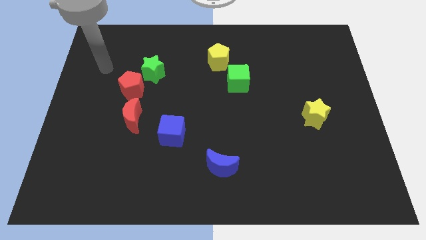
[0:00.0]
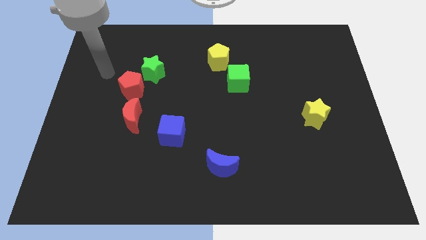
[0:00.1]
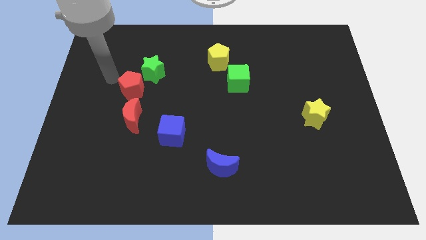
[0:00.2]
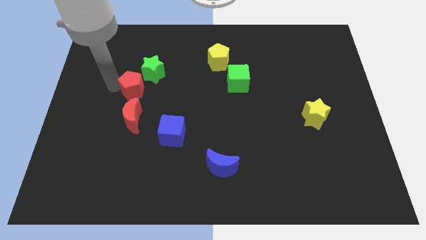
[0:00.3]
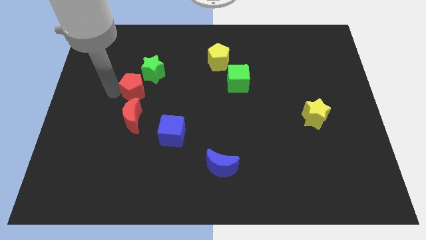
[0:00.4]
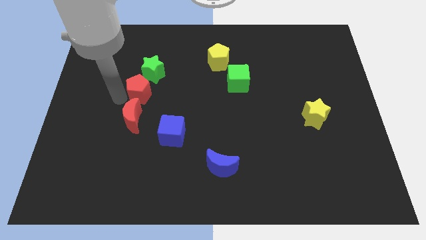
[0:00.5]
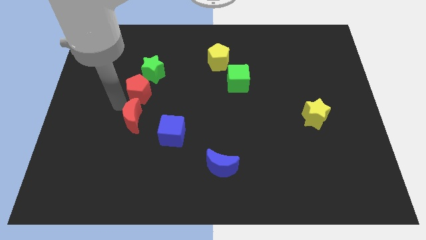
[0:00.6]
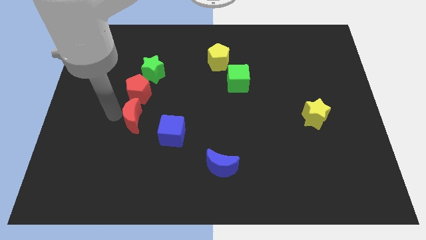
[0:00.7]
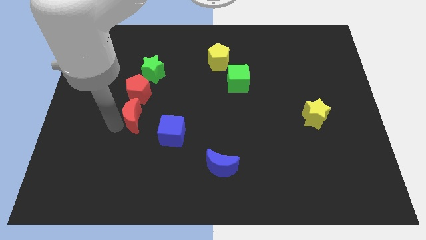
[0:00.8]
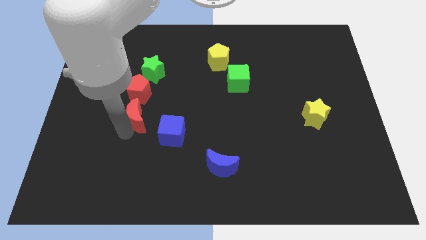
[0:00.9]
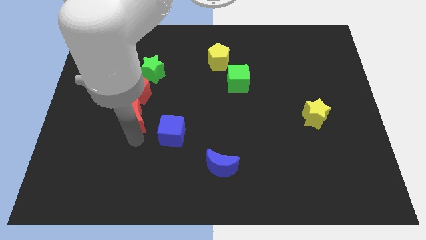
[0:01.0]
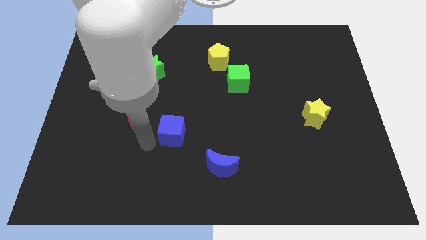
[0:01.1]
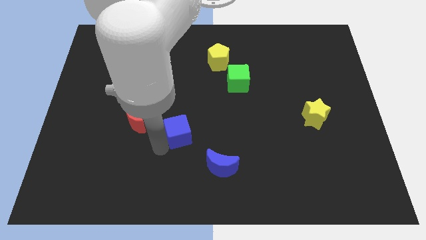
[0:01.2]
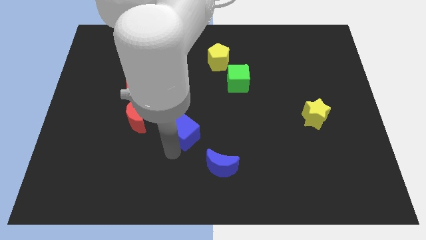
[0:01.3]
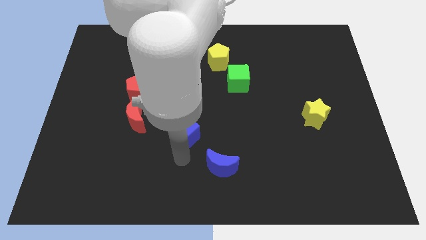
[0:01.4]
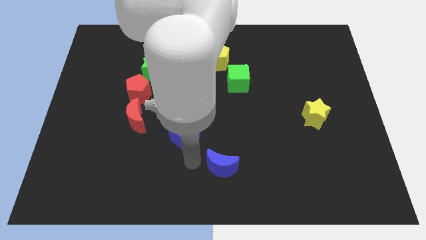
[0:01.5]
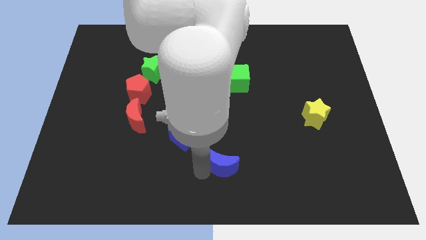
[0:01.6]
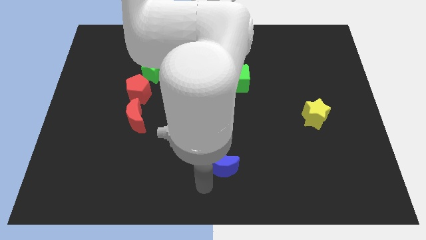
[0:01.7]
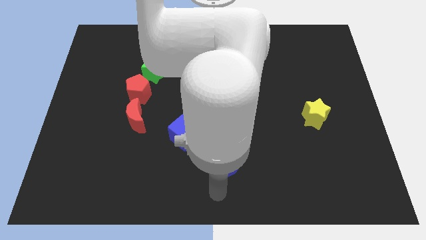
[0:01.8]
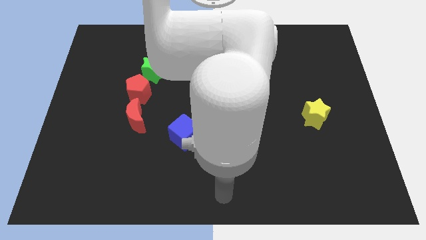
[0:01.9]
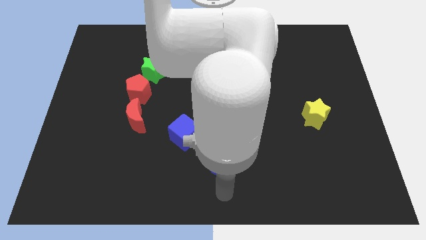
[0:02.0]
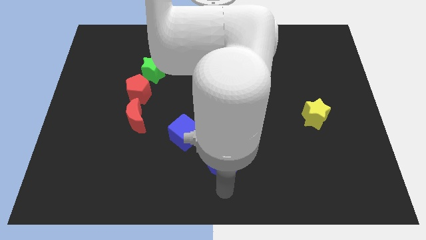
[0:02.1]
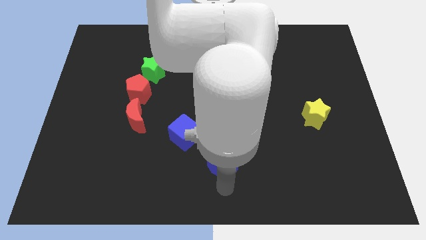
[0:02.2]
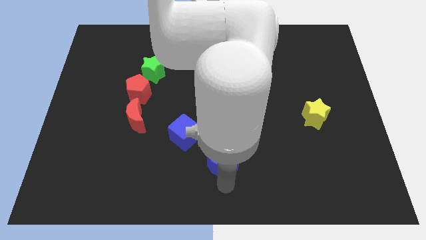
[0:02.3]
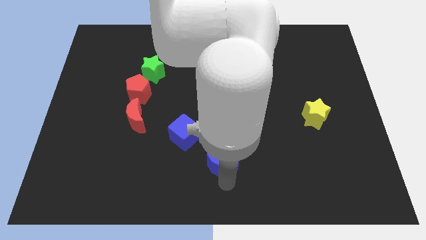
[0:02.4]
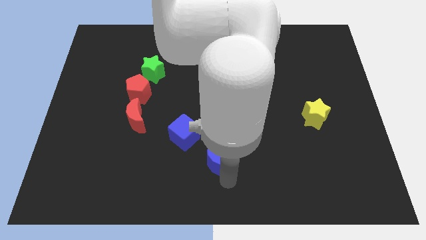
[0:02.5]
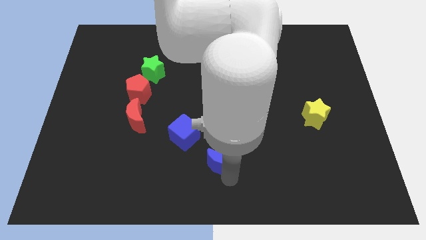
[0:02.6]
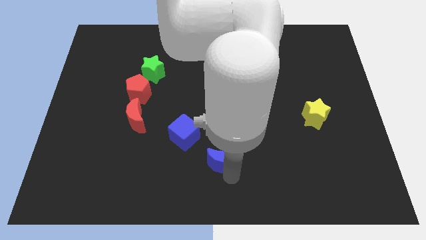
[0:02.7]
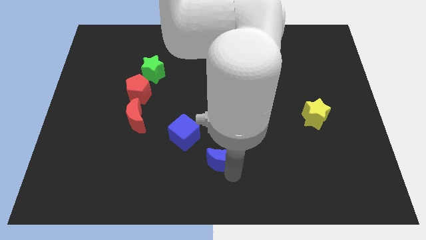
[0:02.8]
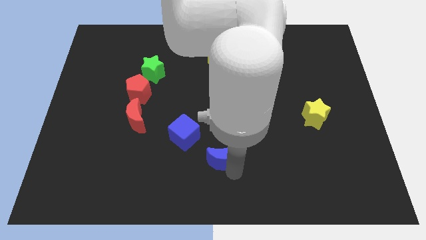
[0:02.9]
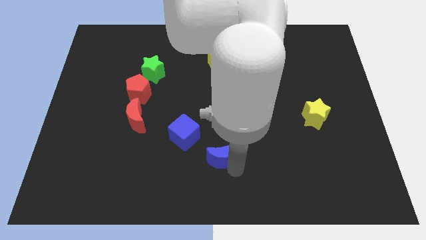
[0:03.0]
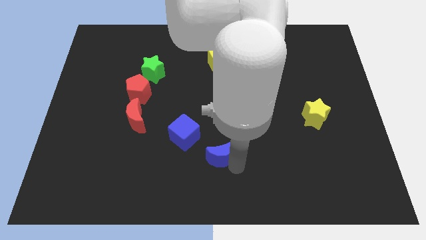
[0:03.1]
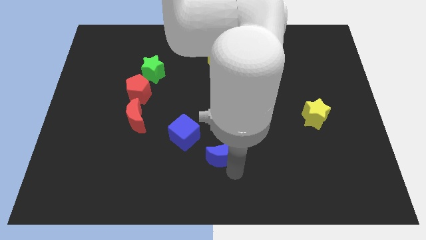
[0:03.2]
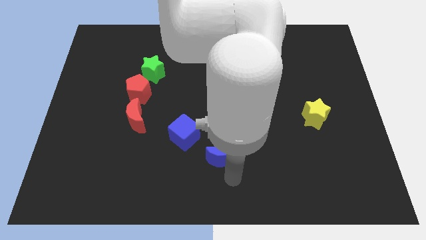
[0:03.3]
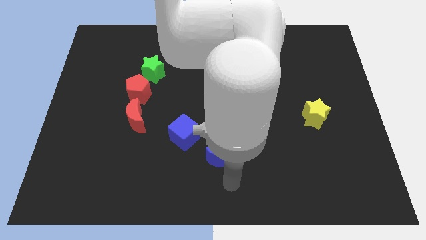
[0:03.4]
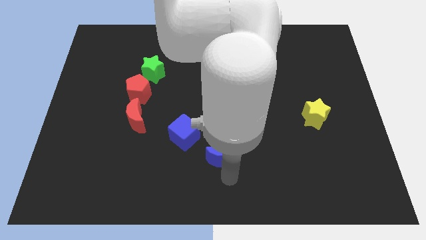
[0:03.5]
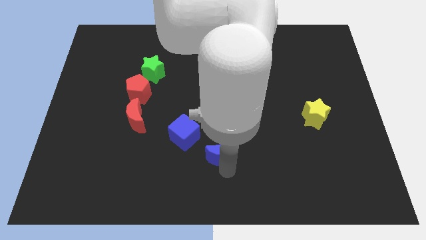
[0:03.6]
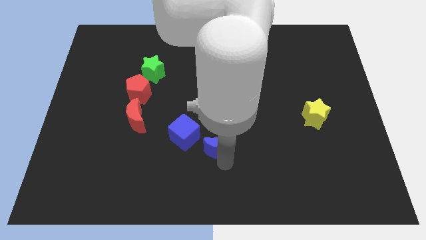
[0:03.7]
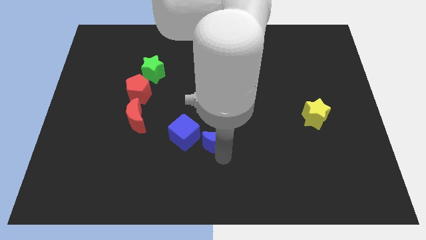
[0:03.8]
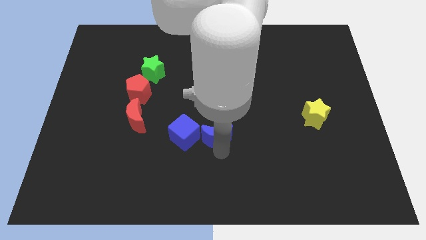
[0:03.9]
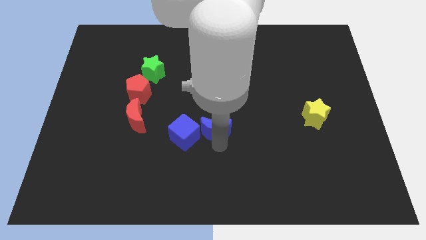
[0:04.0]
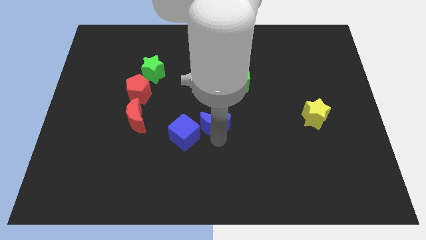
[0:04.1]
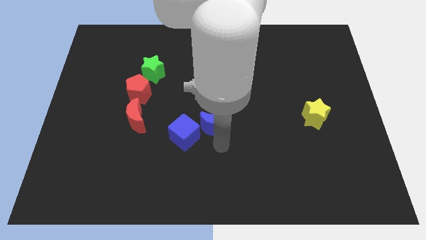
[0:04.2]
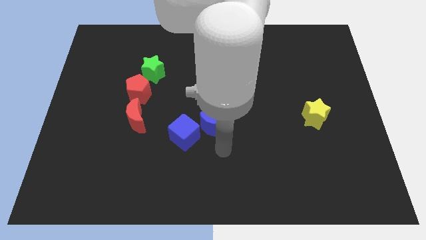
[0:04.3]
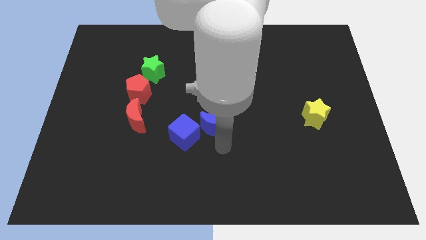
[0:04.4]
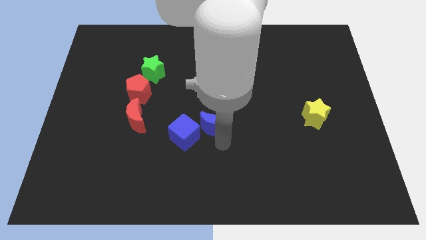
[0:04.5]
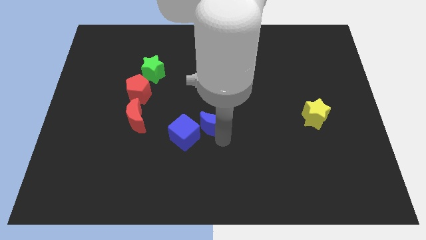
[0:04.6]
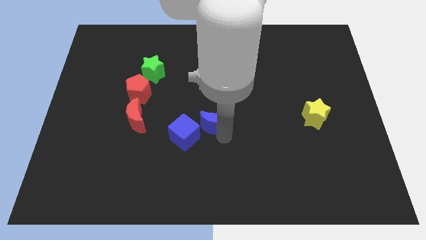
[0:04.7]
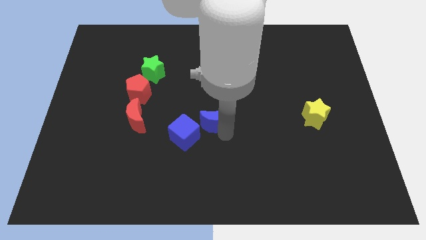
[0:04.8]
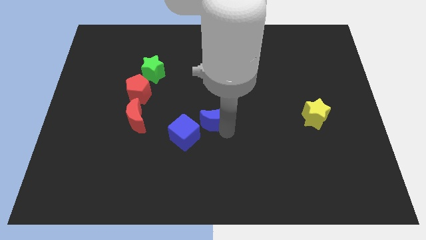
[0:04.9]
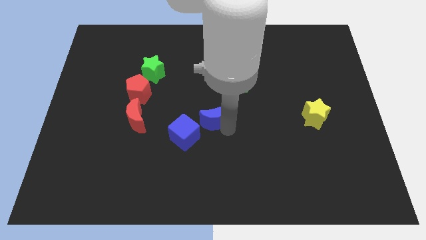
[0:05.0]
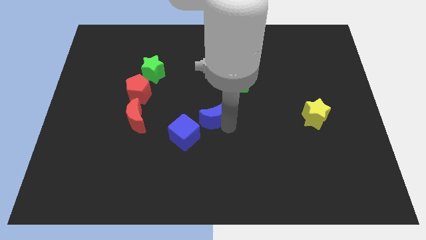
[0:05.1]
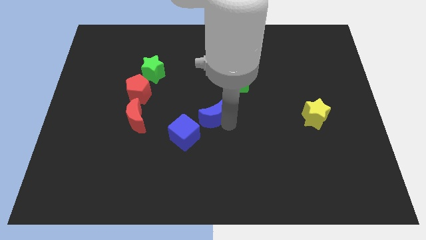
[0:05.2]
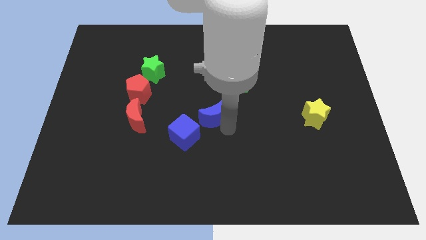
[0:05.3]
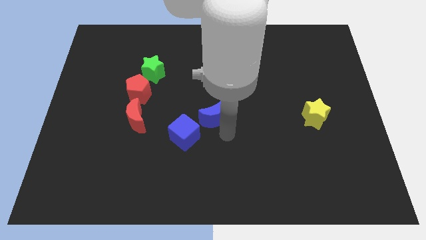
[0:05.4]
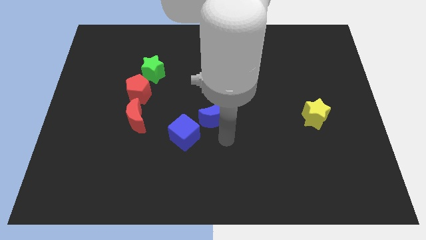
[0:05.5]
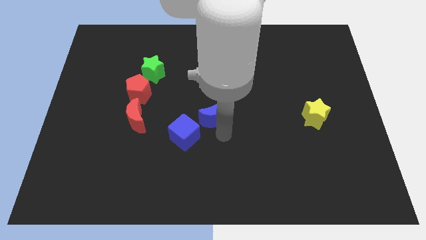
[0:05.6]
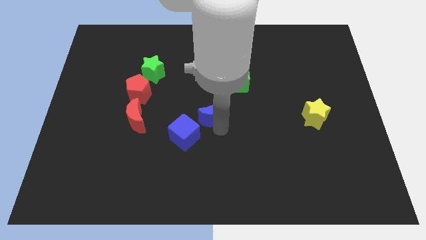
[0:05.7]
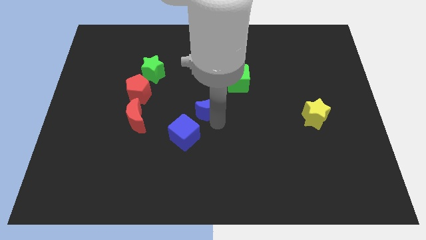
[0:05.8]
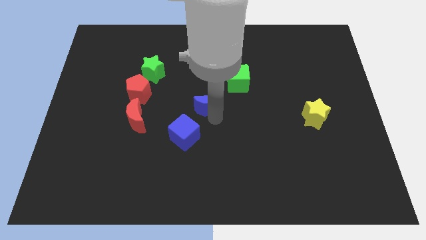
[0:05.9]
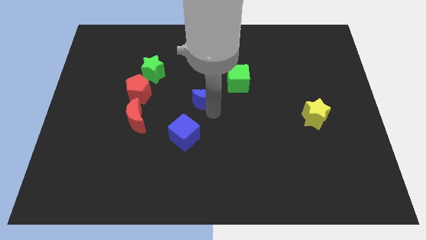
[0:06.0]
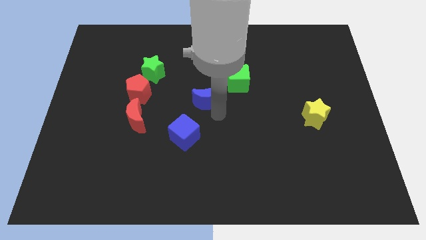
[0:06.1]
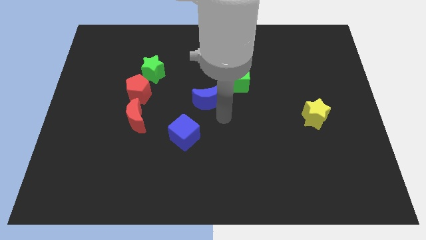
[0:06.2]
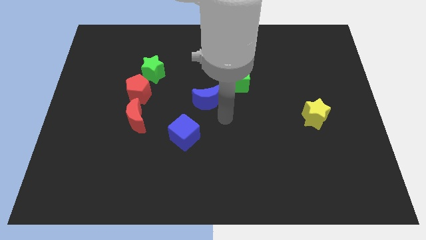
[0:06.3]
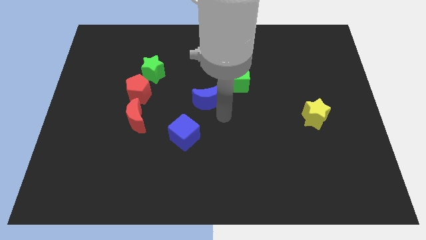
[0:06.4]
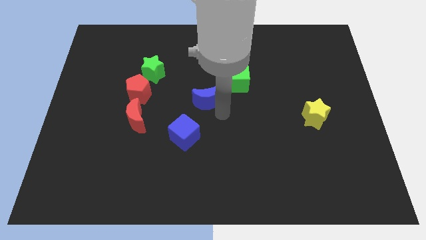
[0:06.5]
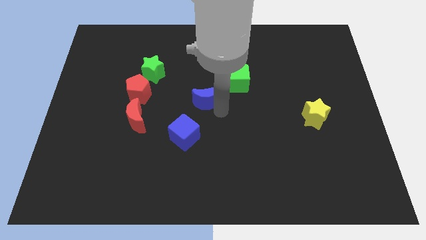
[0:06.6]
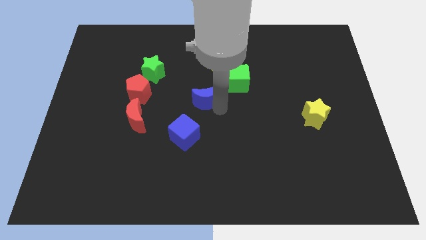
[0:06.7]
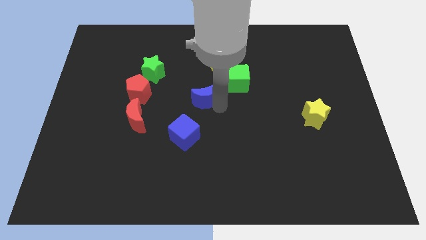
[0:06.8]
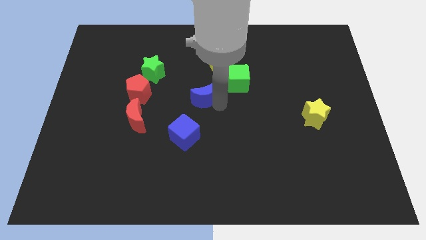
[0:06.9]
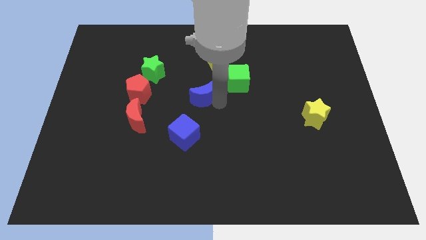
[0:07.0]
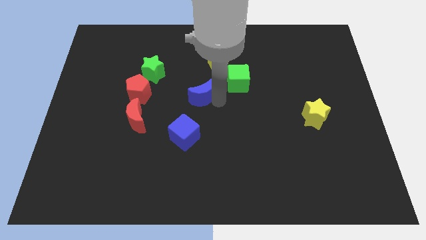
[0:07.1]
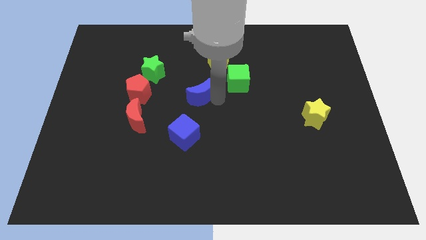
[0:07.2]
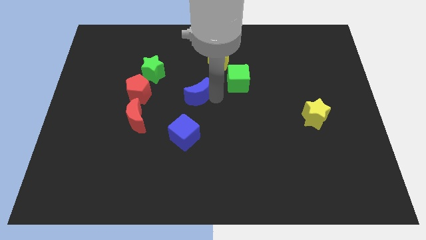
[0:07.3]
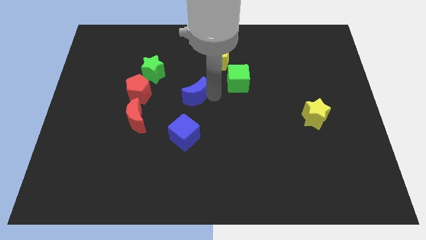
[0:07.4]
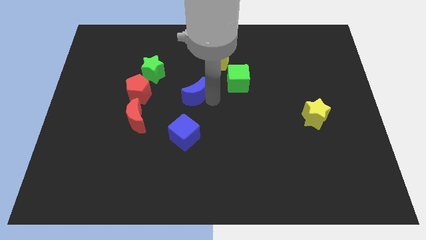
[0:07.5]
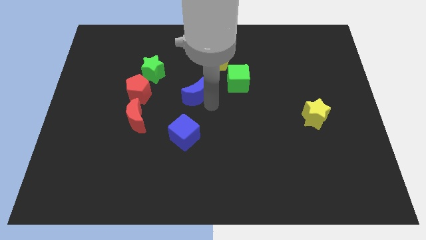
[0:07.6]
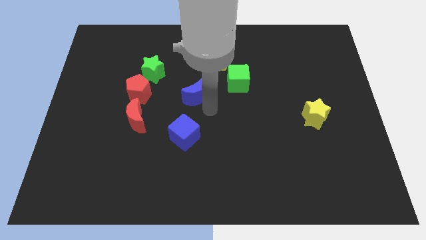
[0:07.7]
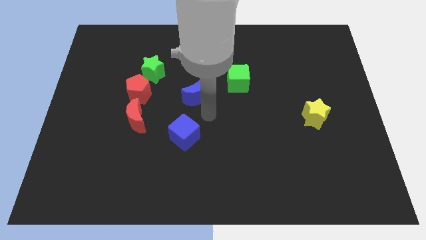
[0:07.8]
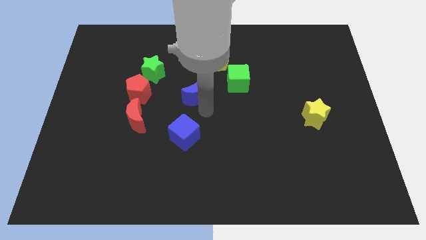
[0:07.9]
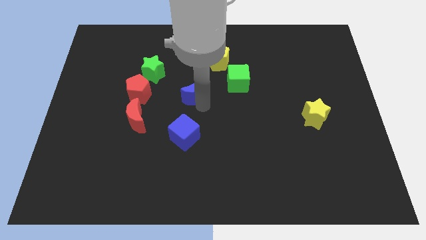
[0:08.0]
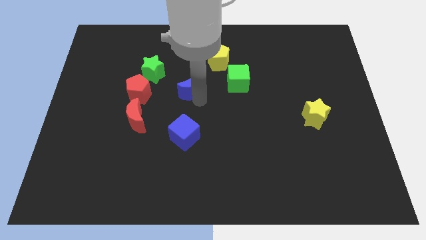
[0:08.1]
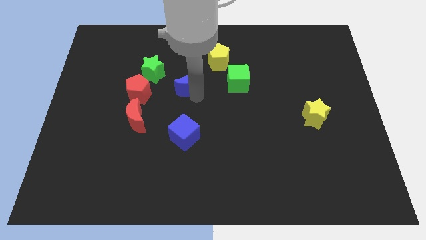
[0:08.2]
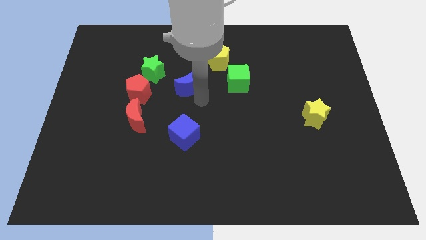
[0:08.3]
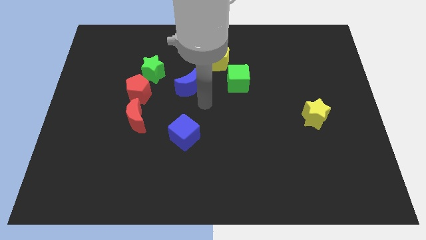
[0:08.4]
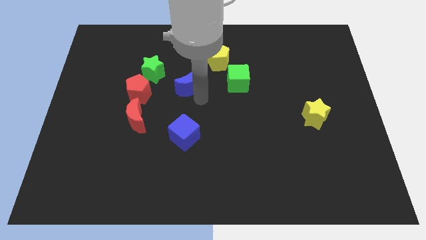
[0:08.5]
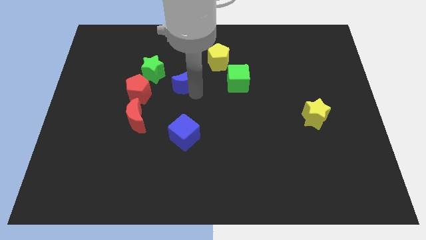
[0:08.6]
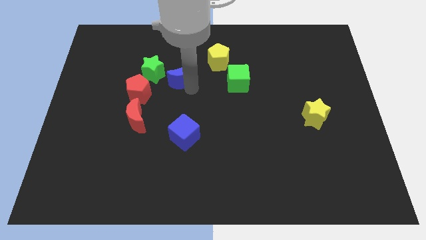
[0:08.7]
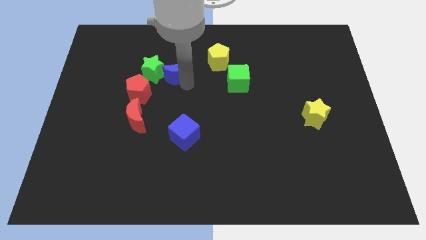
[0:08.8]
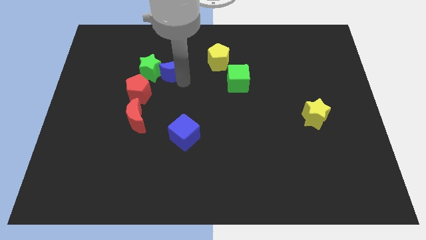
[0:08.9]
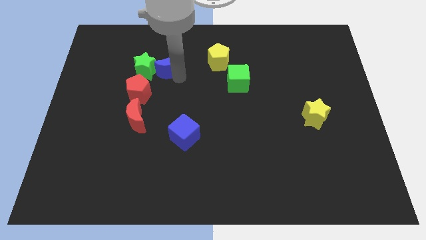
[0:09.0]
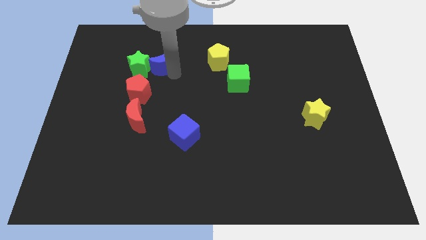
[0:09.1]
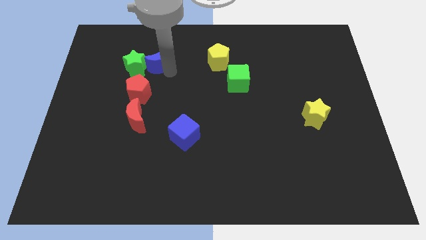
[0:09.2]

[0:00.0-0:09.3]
push the blue moon above the red pentagon
